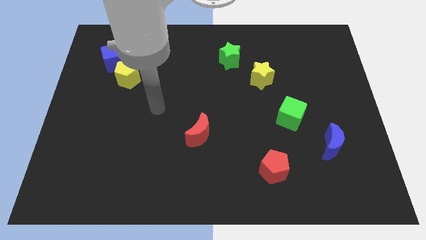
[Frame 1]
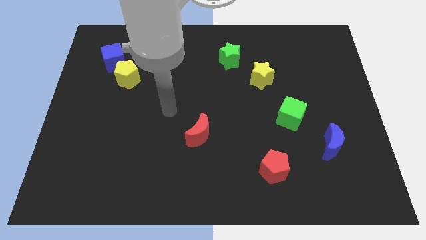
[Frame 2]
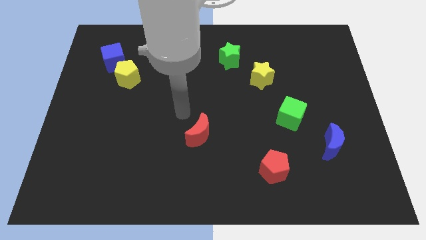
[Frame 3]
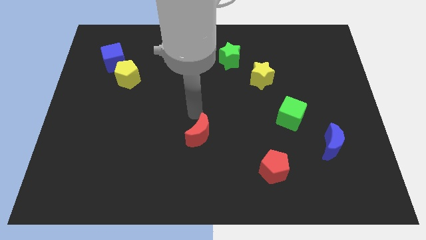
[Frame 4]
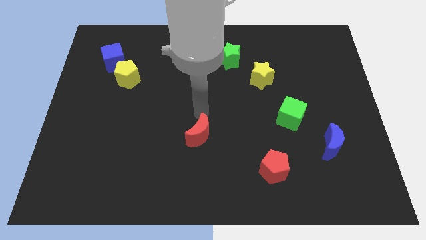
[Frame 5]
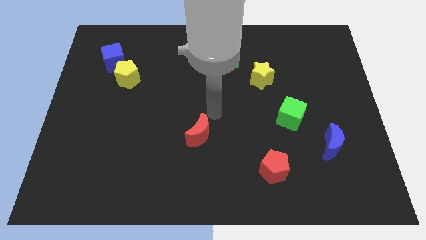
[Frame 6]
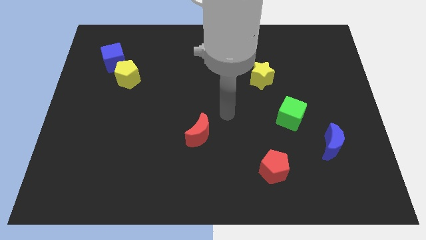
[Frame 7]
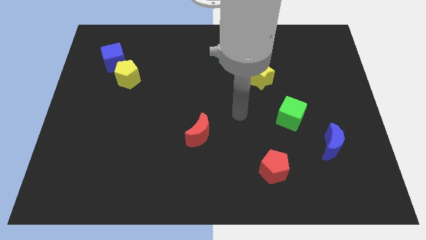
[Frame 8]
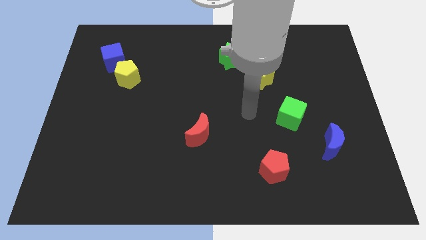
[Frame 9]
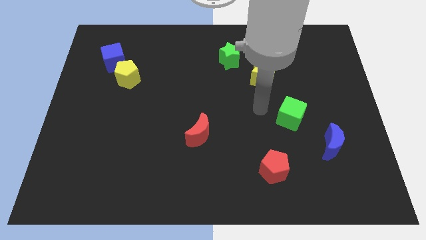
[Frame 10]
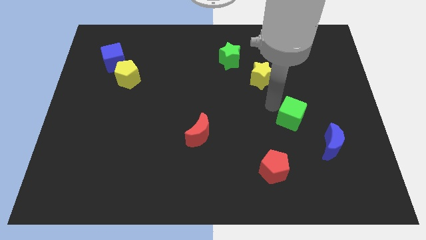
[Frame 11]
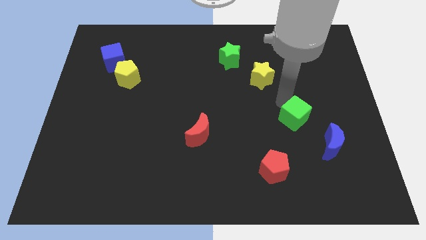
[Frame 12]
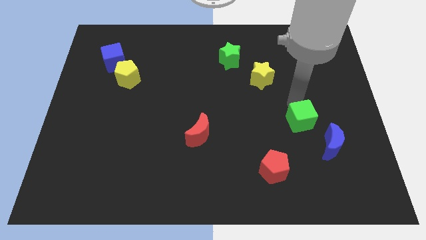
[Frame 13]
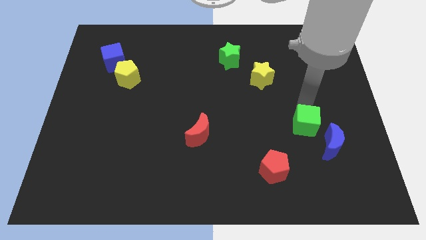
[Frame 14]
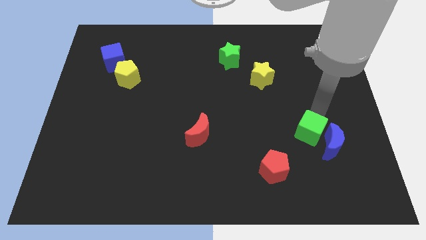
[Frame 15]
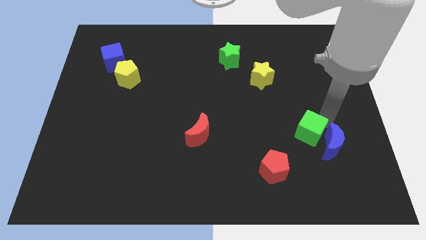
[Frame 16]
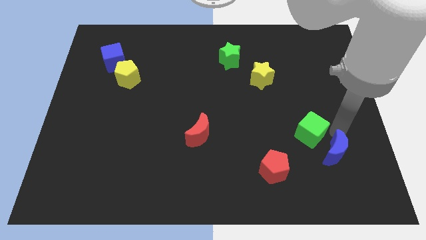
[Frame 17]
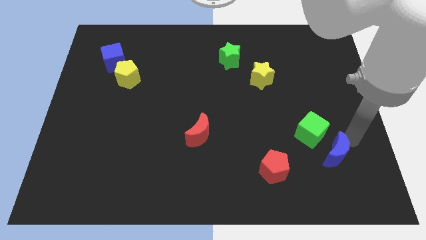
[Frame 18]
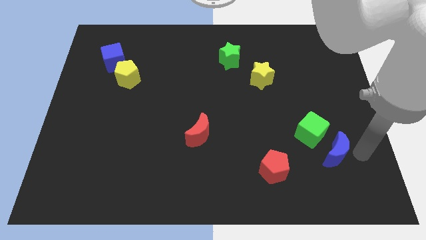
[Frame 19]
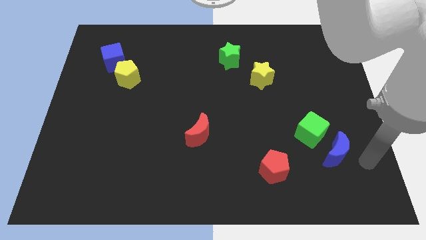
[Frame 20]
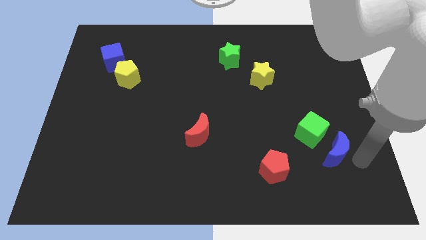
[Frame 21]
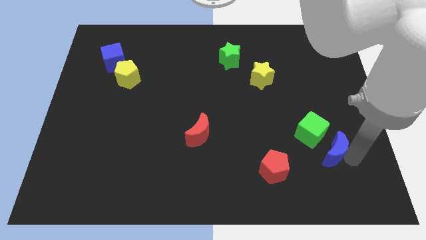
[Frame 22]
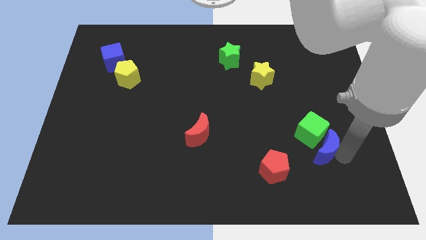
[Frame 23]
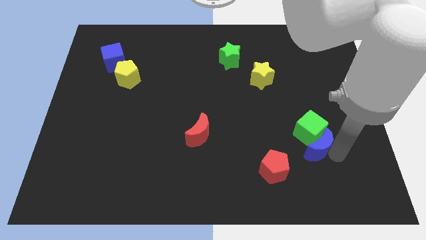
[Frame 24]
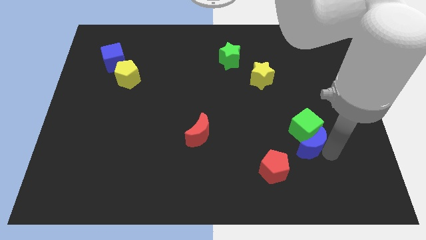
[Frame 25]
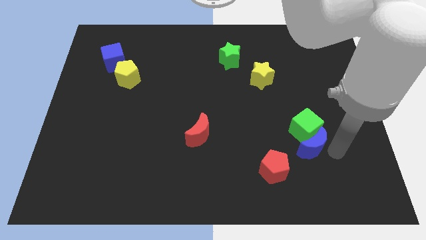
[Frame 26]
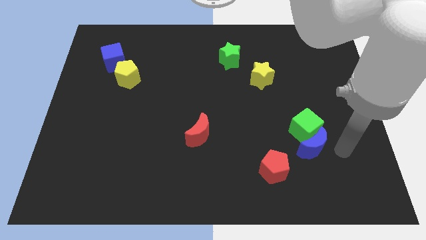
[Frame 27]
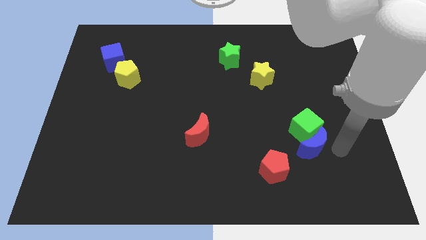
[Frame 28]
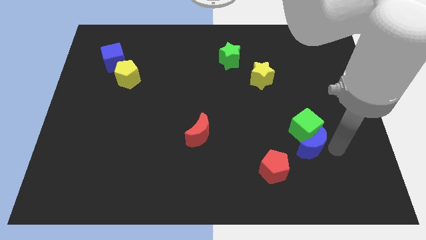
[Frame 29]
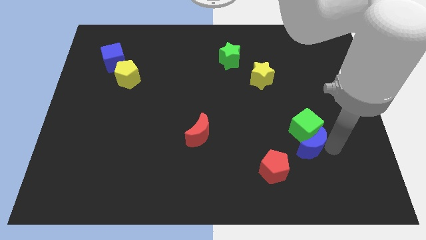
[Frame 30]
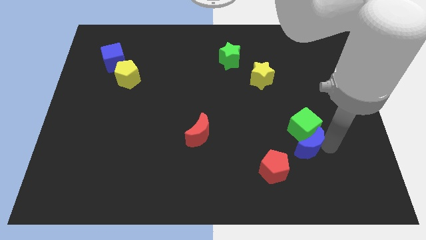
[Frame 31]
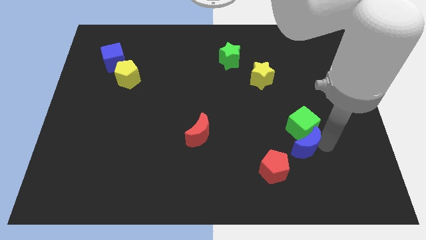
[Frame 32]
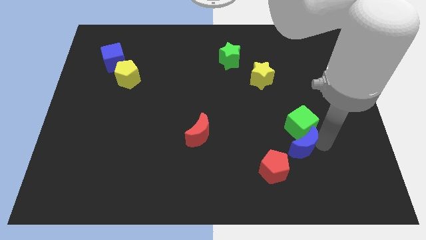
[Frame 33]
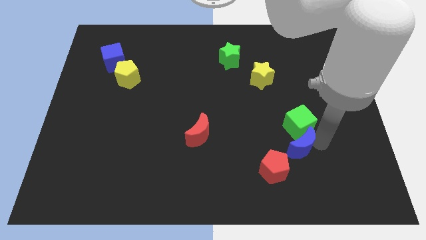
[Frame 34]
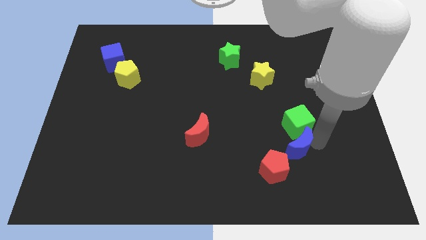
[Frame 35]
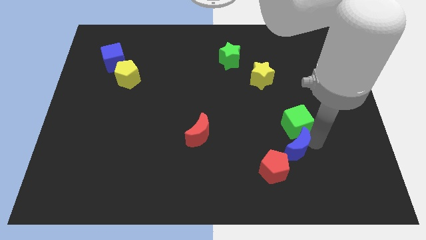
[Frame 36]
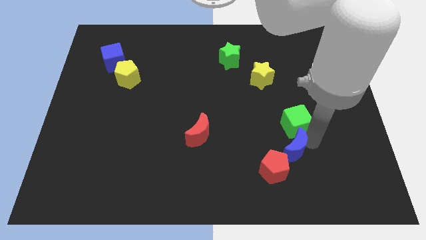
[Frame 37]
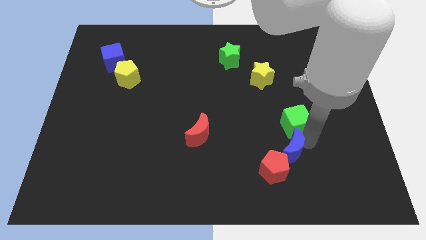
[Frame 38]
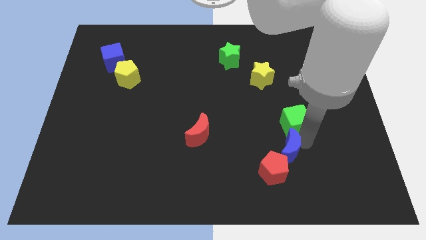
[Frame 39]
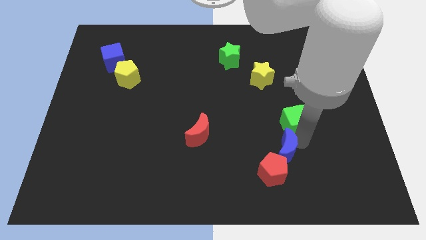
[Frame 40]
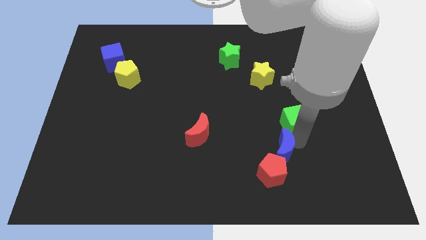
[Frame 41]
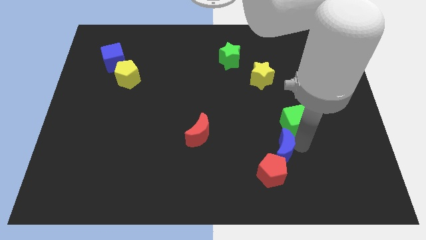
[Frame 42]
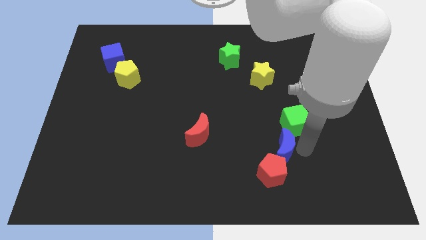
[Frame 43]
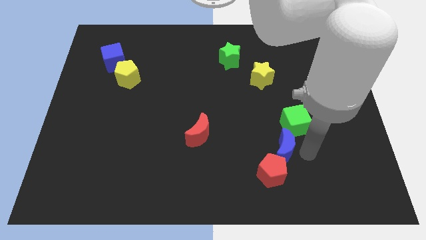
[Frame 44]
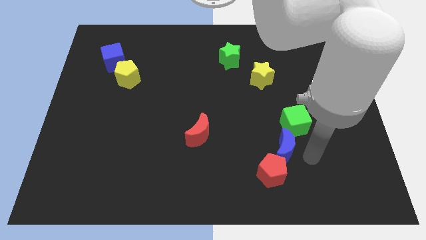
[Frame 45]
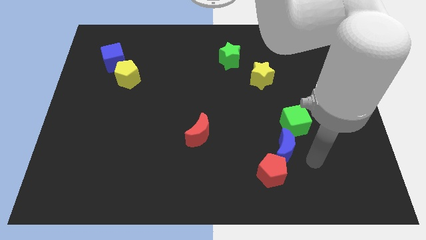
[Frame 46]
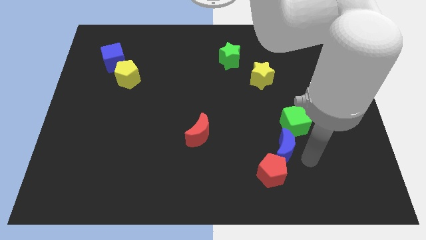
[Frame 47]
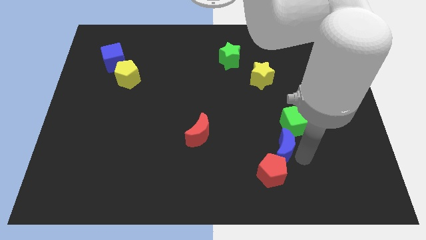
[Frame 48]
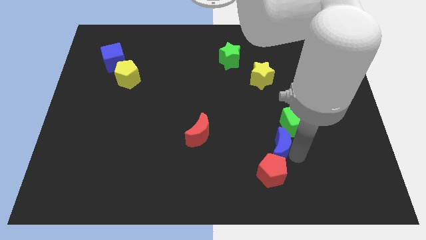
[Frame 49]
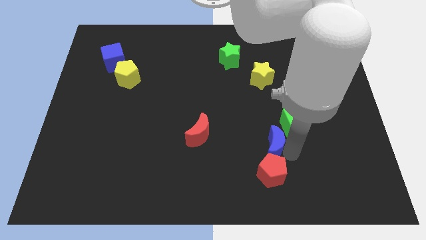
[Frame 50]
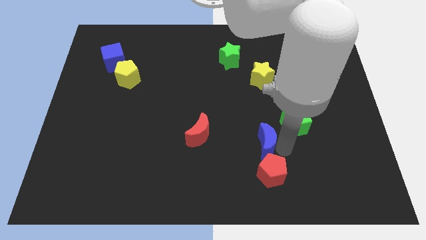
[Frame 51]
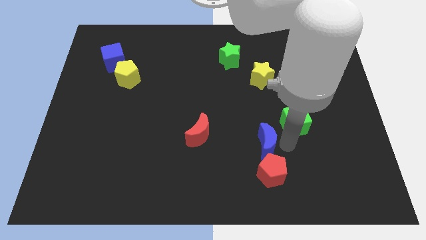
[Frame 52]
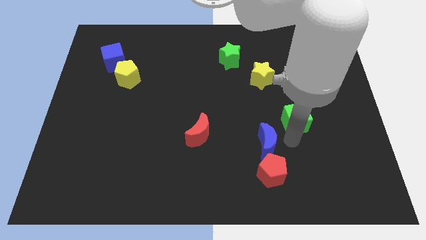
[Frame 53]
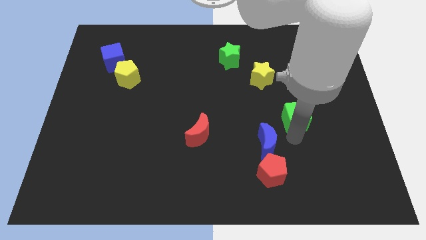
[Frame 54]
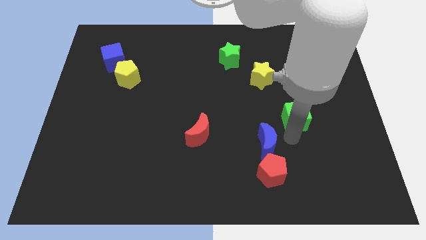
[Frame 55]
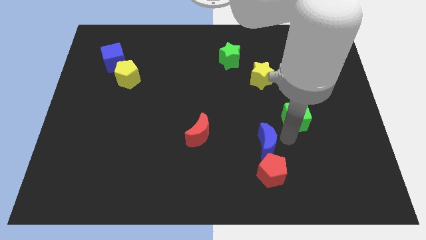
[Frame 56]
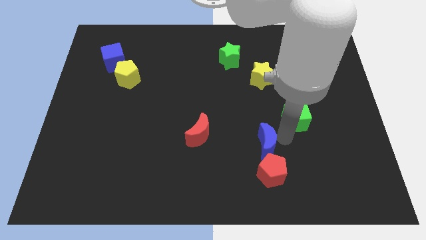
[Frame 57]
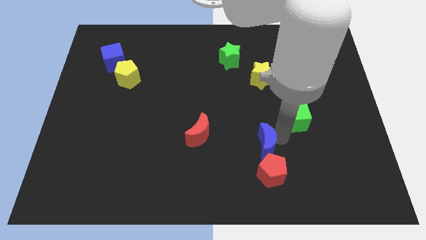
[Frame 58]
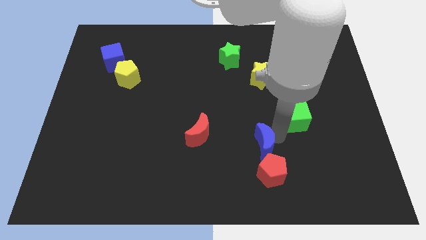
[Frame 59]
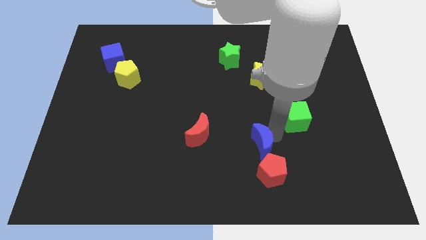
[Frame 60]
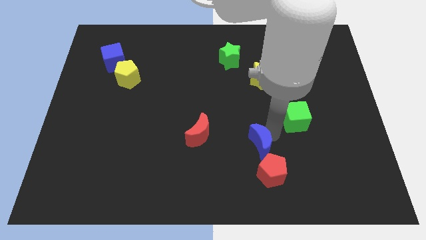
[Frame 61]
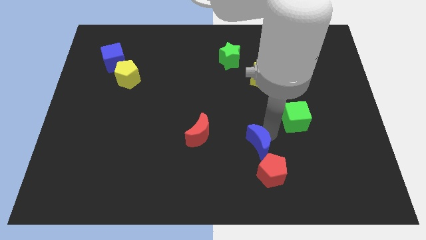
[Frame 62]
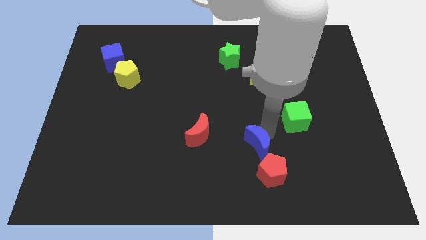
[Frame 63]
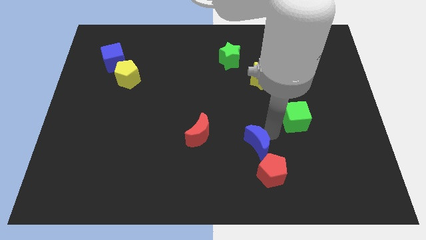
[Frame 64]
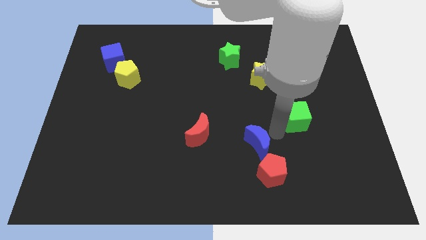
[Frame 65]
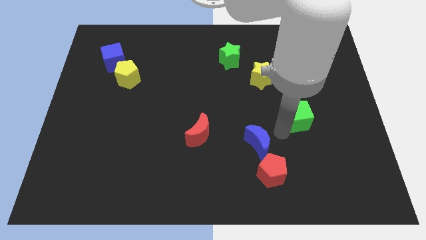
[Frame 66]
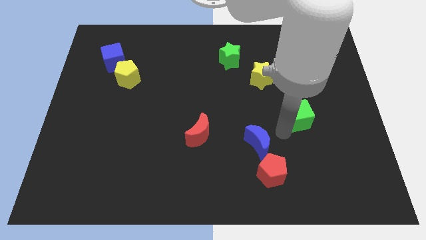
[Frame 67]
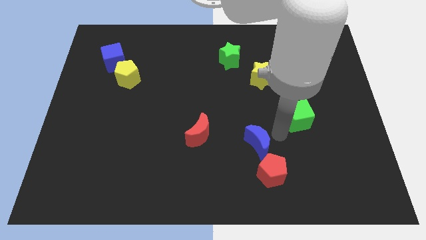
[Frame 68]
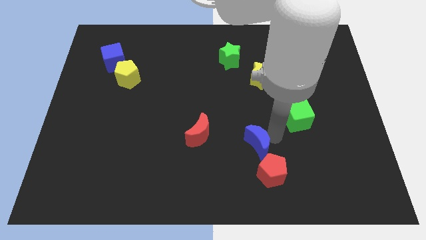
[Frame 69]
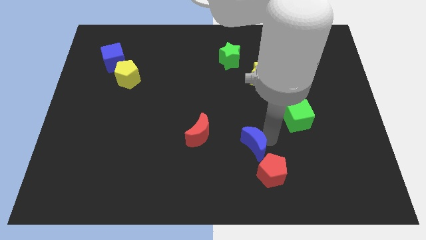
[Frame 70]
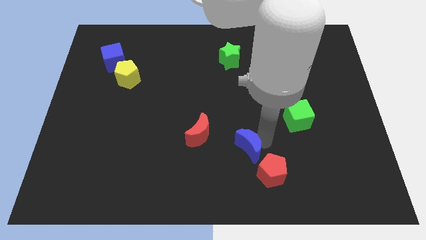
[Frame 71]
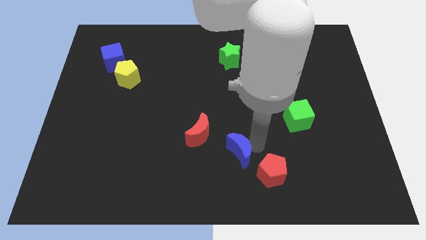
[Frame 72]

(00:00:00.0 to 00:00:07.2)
move the blue moon to the left

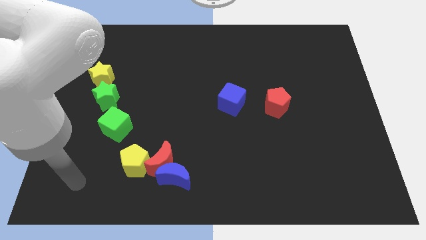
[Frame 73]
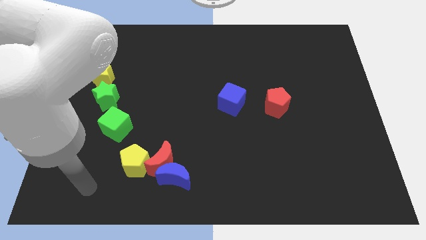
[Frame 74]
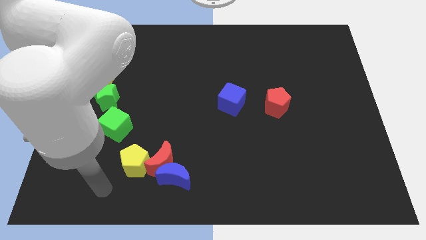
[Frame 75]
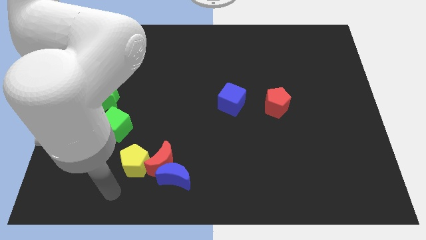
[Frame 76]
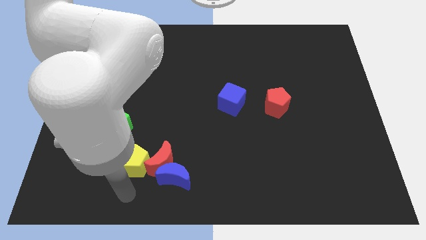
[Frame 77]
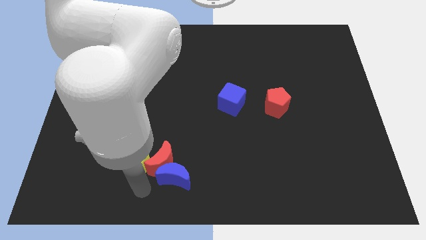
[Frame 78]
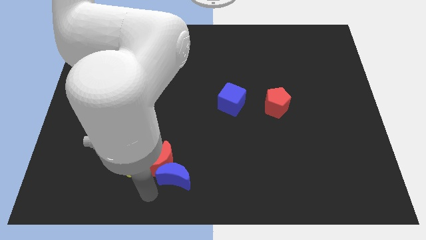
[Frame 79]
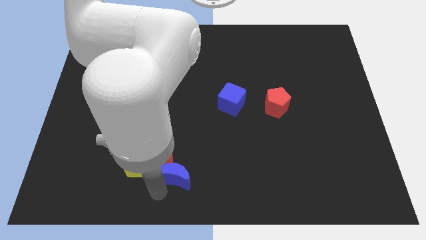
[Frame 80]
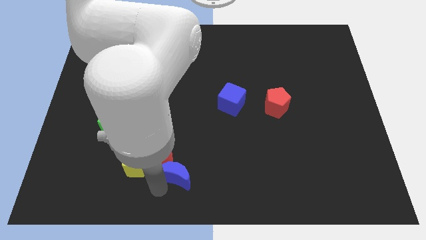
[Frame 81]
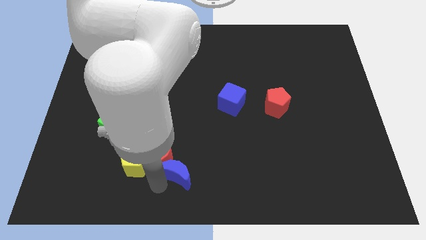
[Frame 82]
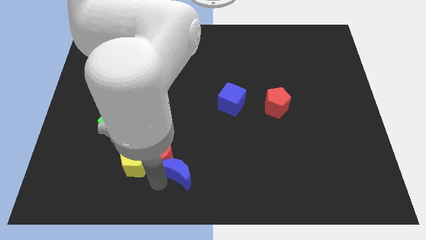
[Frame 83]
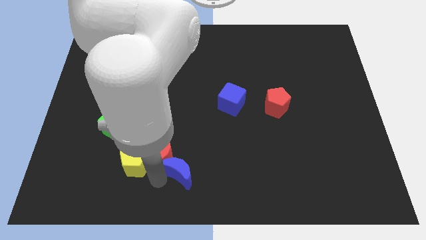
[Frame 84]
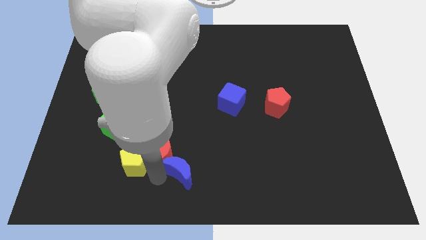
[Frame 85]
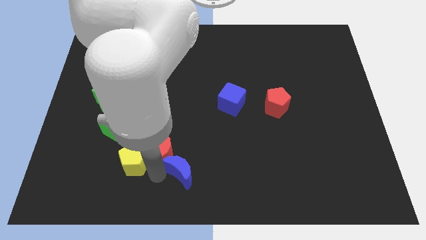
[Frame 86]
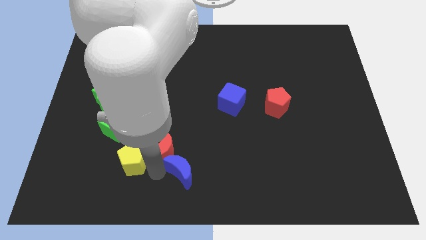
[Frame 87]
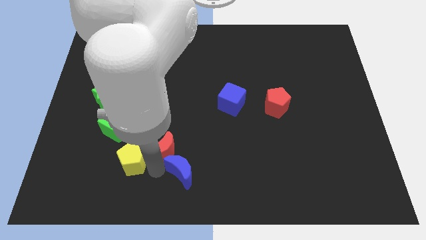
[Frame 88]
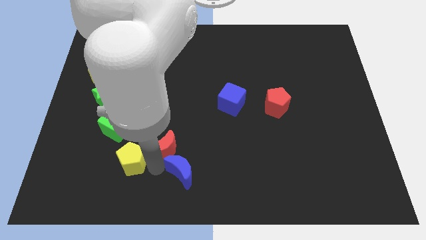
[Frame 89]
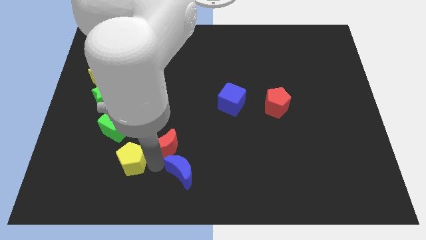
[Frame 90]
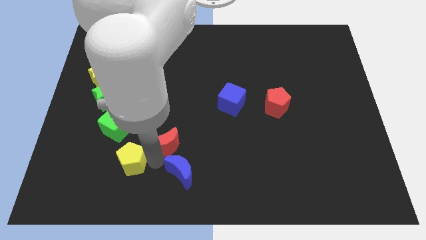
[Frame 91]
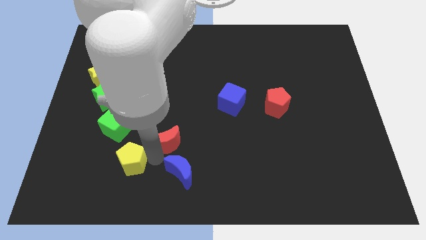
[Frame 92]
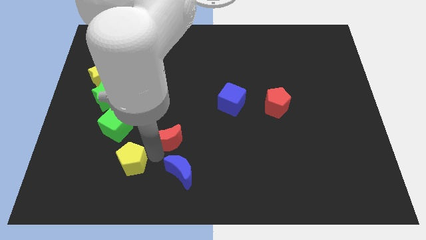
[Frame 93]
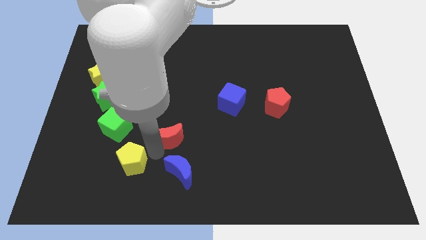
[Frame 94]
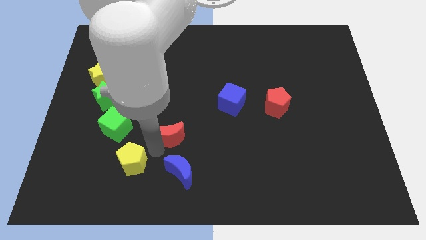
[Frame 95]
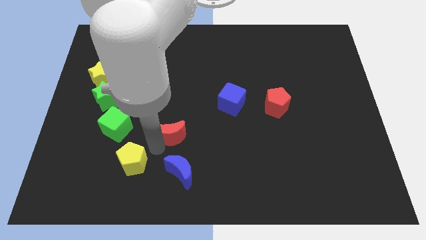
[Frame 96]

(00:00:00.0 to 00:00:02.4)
slide the red moon slightly upwards
